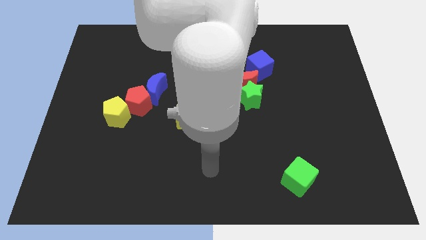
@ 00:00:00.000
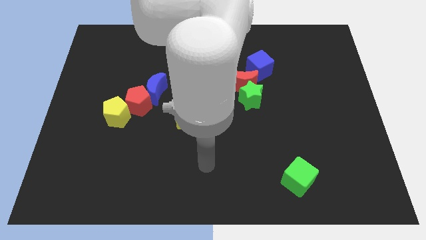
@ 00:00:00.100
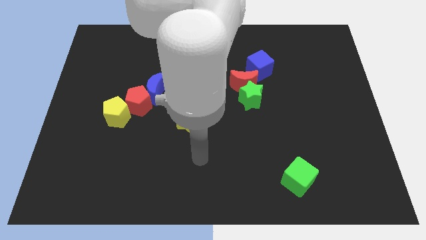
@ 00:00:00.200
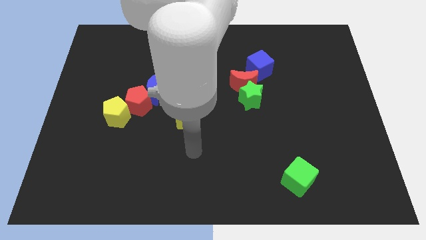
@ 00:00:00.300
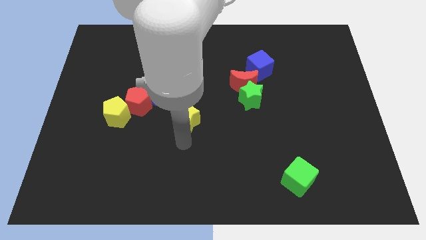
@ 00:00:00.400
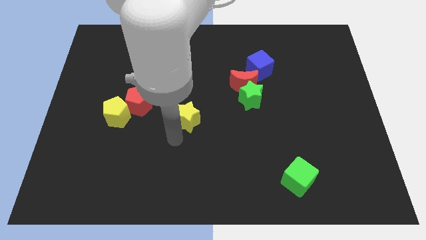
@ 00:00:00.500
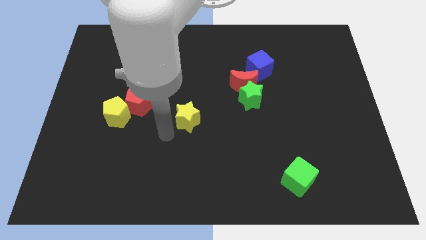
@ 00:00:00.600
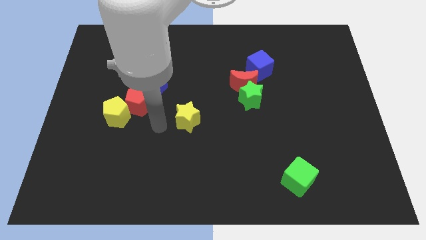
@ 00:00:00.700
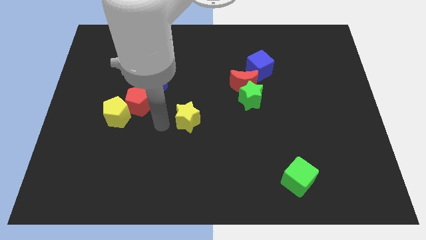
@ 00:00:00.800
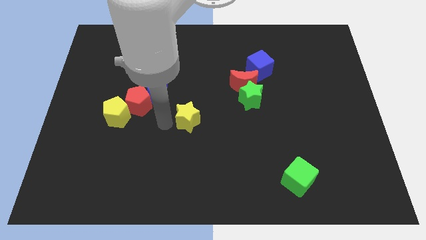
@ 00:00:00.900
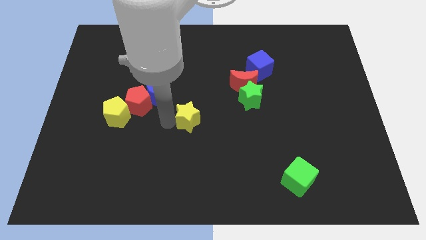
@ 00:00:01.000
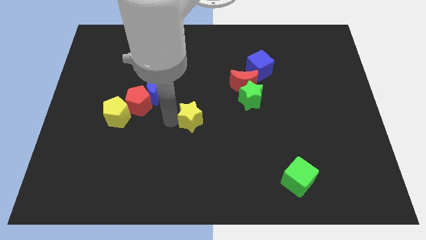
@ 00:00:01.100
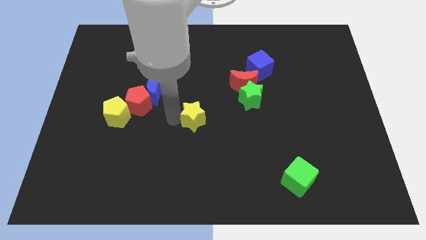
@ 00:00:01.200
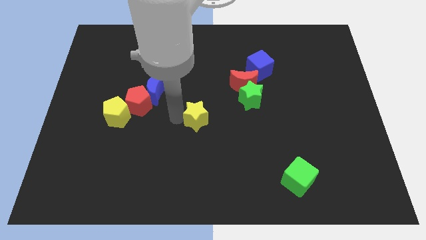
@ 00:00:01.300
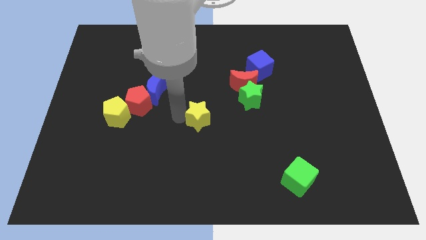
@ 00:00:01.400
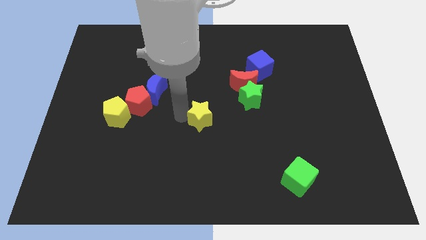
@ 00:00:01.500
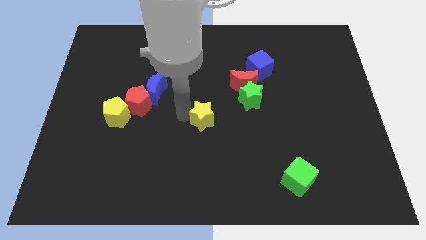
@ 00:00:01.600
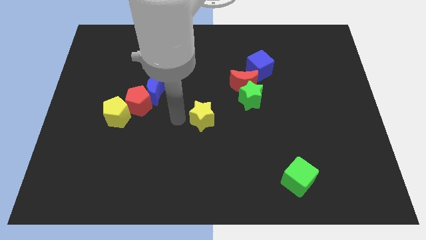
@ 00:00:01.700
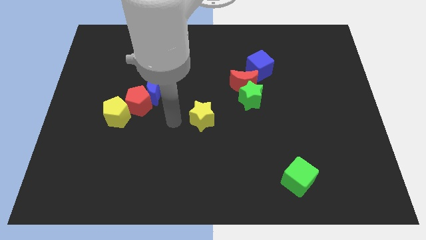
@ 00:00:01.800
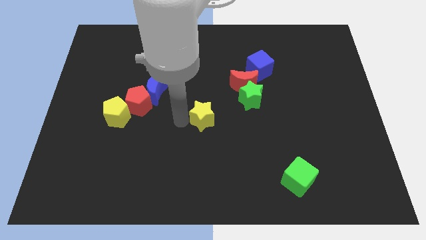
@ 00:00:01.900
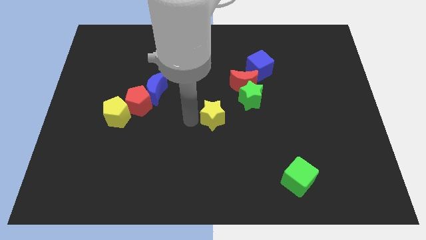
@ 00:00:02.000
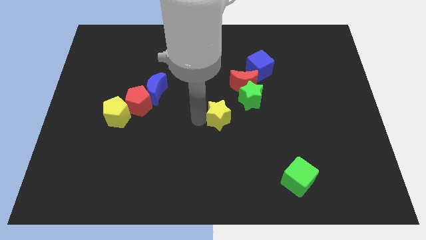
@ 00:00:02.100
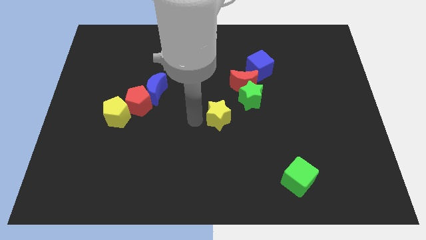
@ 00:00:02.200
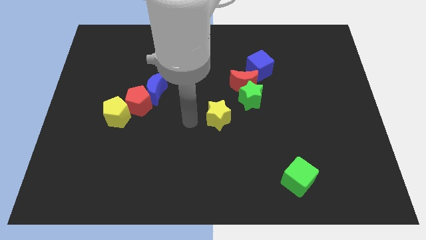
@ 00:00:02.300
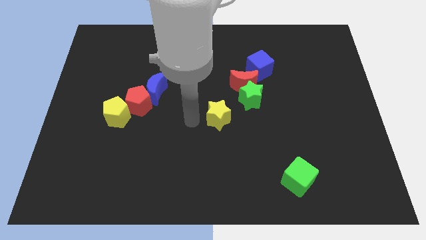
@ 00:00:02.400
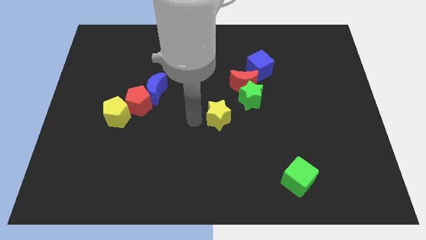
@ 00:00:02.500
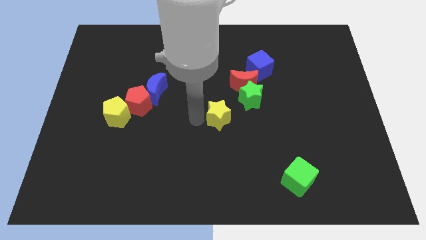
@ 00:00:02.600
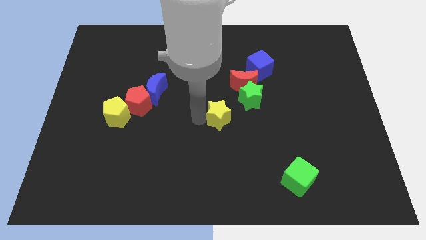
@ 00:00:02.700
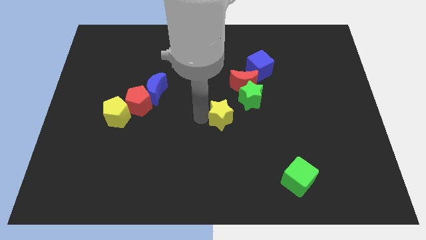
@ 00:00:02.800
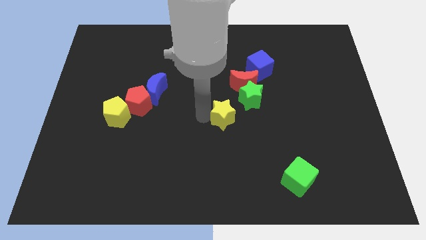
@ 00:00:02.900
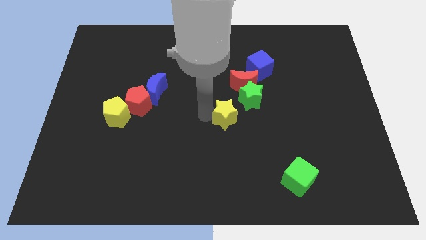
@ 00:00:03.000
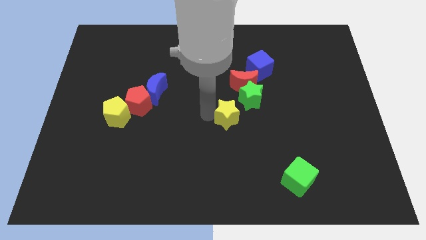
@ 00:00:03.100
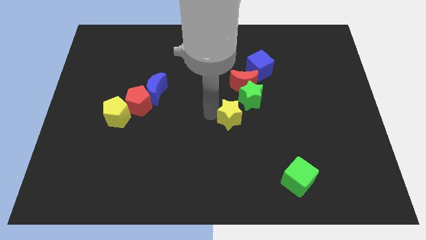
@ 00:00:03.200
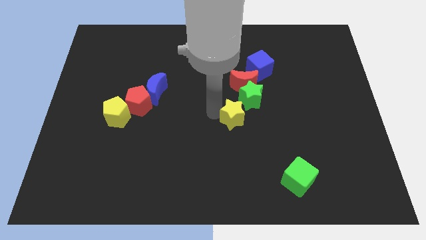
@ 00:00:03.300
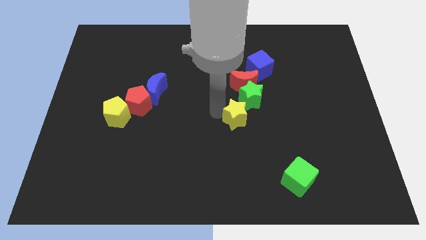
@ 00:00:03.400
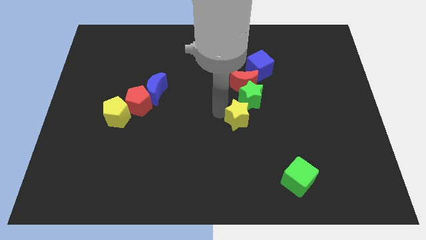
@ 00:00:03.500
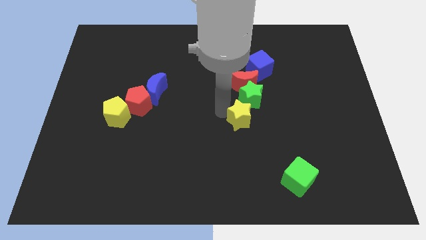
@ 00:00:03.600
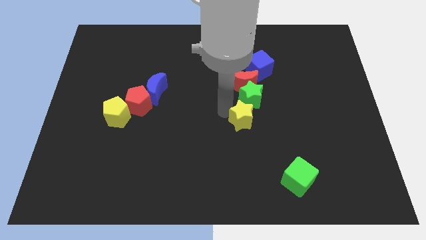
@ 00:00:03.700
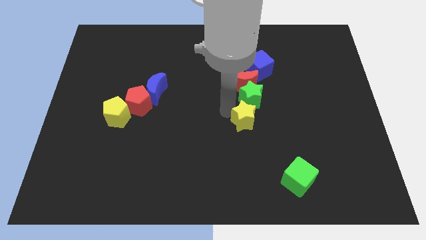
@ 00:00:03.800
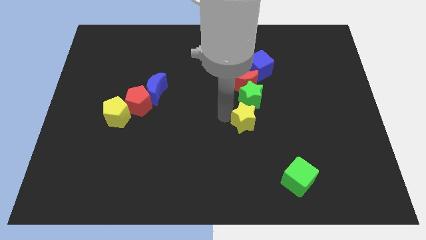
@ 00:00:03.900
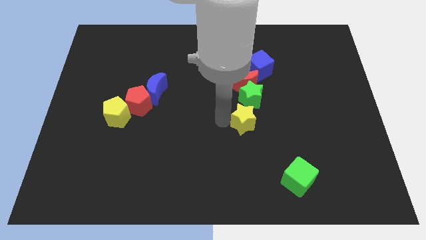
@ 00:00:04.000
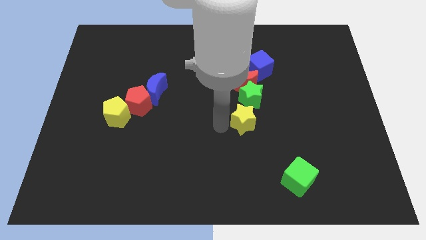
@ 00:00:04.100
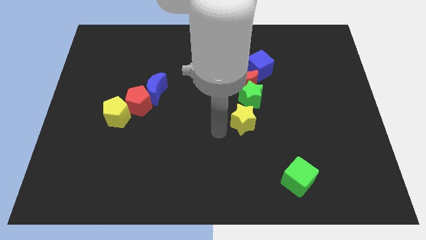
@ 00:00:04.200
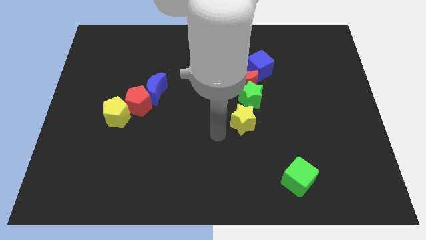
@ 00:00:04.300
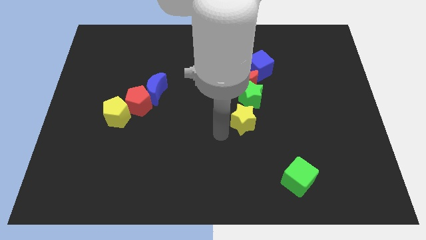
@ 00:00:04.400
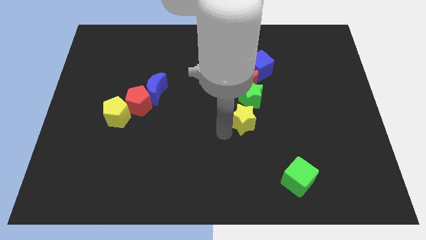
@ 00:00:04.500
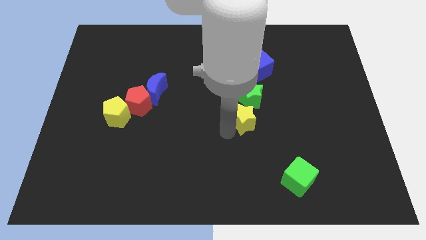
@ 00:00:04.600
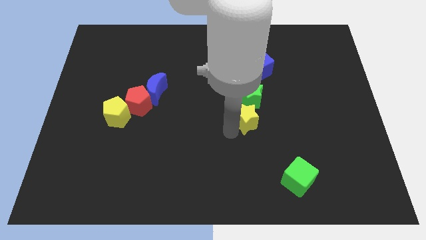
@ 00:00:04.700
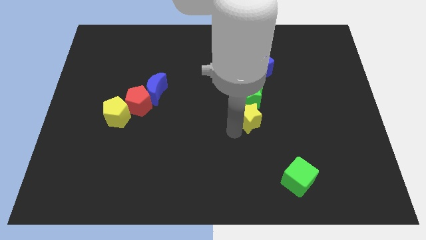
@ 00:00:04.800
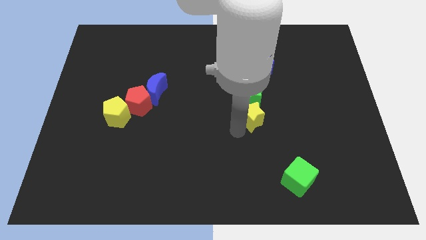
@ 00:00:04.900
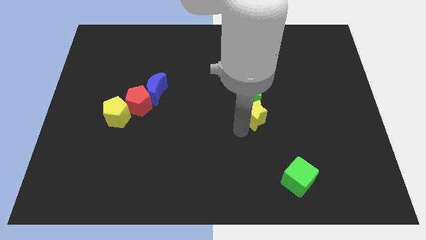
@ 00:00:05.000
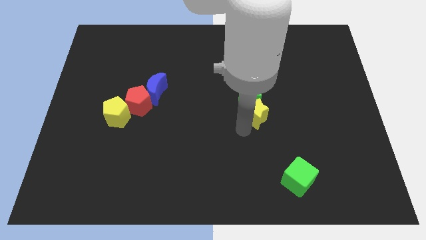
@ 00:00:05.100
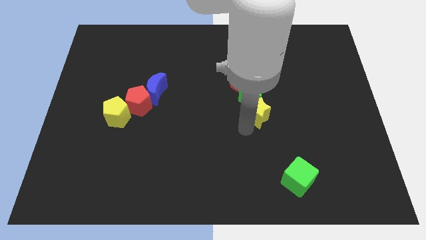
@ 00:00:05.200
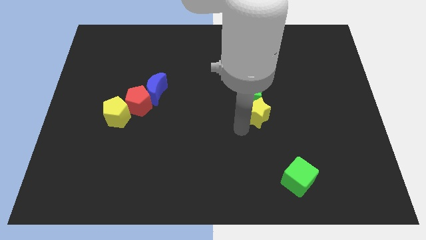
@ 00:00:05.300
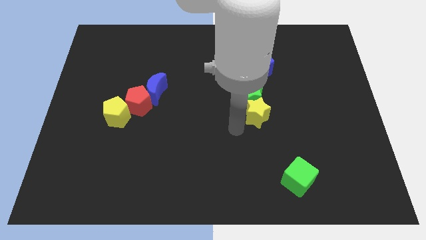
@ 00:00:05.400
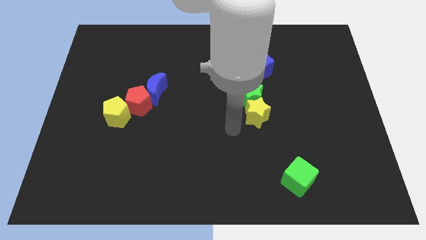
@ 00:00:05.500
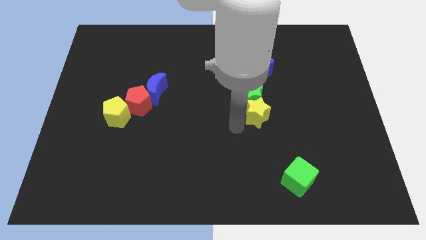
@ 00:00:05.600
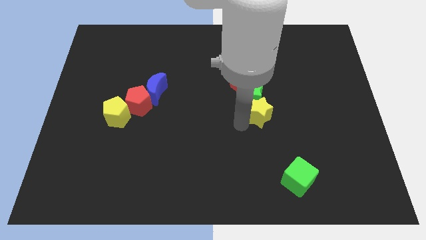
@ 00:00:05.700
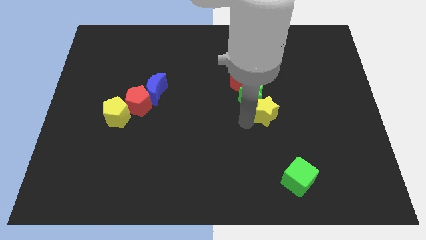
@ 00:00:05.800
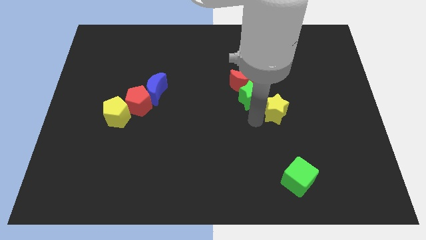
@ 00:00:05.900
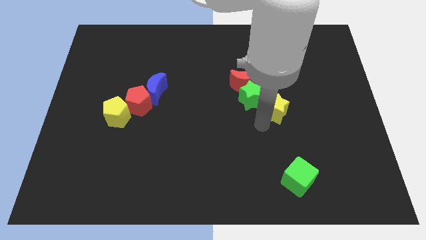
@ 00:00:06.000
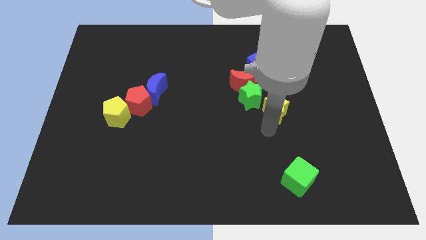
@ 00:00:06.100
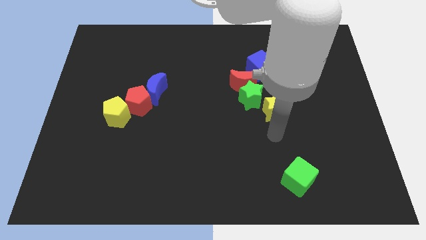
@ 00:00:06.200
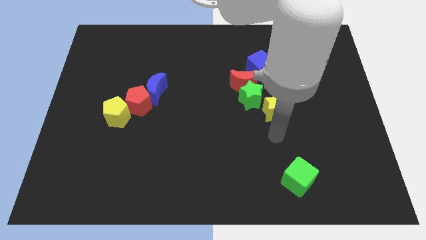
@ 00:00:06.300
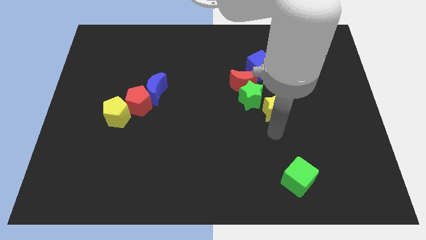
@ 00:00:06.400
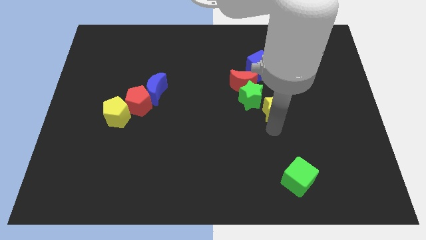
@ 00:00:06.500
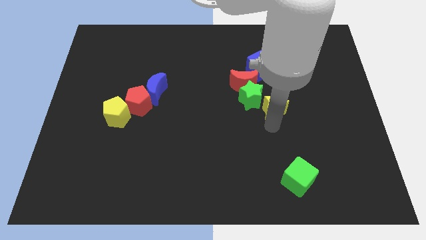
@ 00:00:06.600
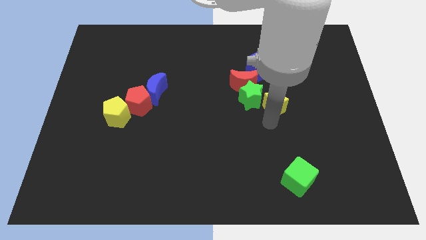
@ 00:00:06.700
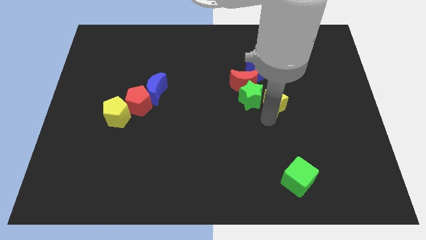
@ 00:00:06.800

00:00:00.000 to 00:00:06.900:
slide the yellow star diagonally up and to the right of the green star

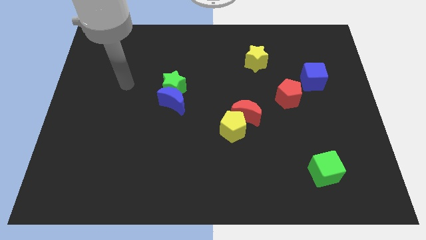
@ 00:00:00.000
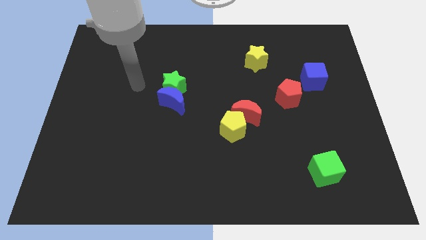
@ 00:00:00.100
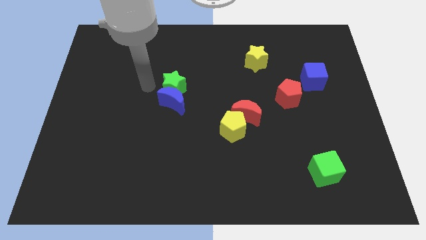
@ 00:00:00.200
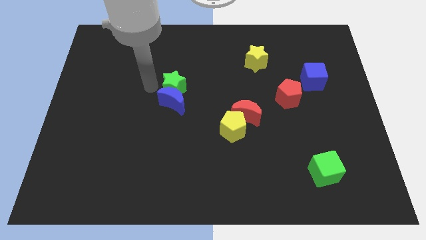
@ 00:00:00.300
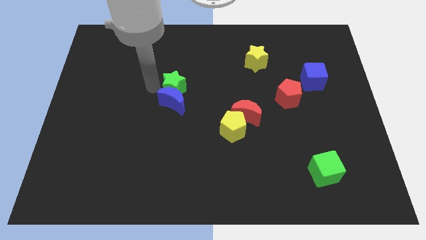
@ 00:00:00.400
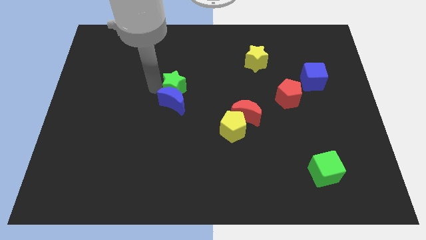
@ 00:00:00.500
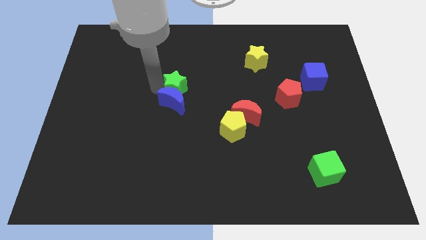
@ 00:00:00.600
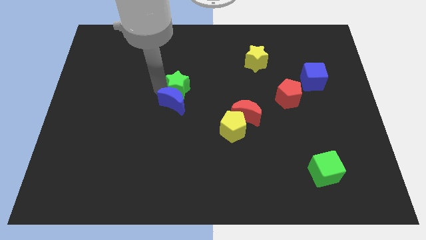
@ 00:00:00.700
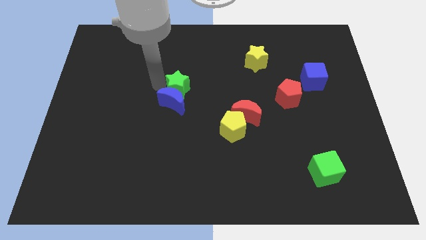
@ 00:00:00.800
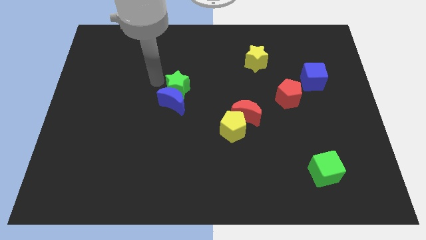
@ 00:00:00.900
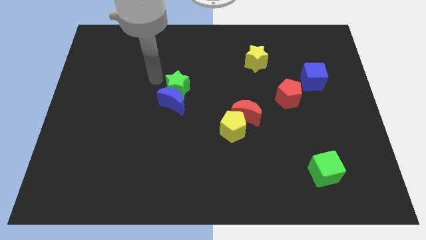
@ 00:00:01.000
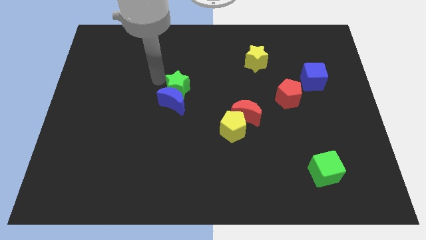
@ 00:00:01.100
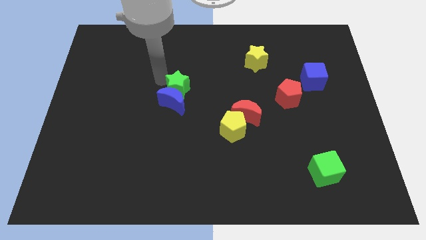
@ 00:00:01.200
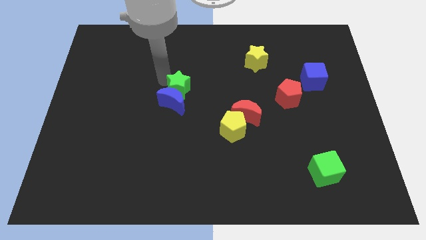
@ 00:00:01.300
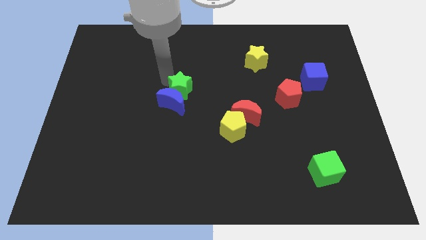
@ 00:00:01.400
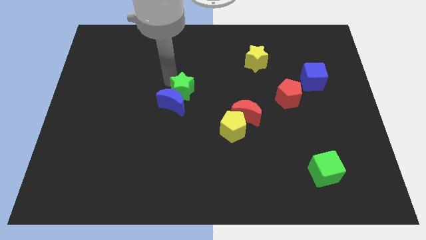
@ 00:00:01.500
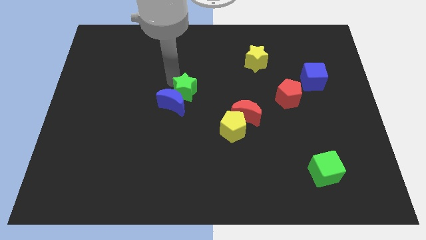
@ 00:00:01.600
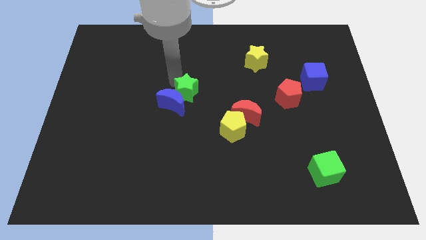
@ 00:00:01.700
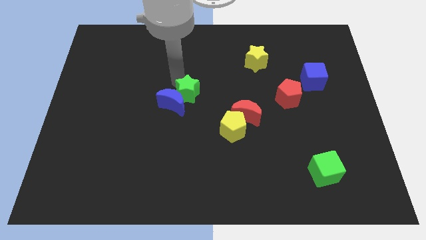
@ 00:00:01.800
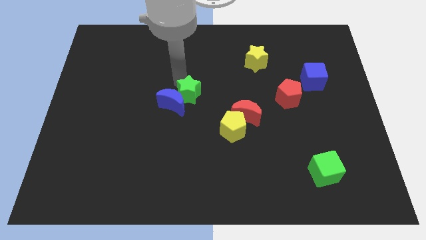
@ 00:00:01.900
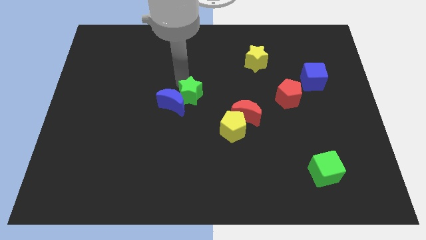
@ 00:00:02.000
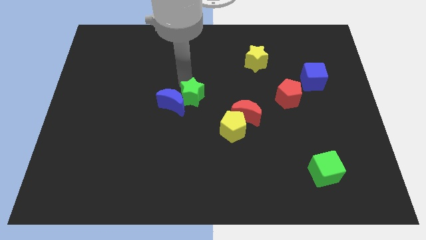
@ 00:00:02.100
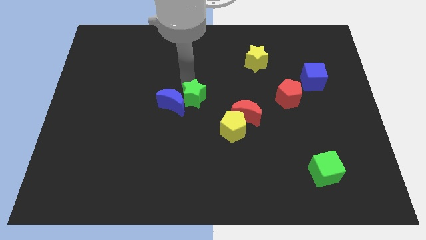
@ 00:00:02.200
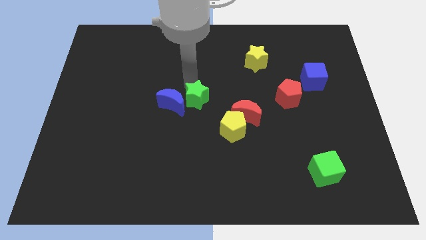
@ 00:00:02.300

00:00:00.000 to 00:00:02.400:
put the green star diagonally up and to the left of the yellow pentagon
